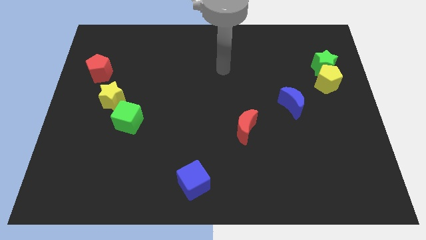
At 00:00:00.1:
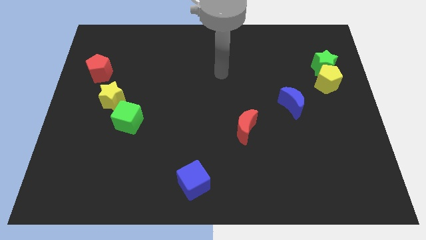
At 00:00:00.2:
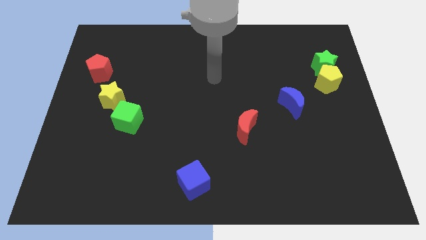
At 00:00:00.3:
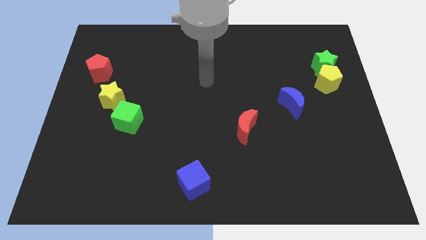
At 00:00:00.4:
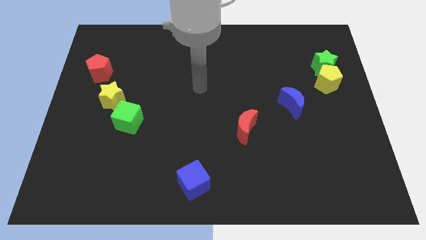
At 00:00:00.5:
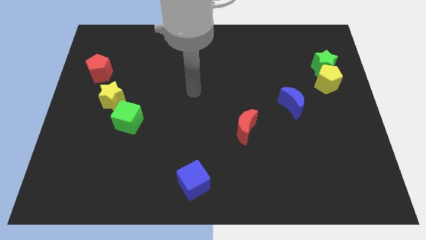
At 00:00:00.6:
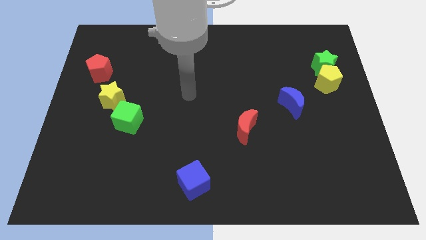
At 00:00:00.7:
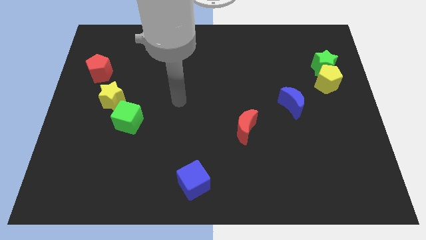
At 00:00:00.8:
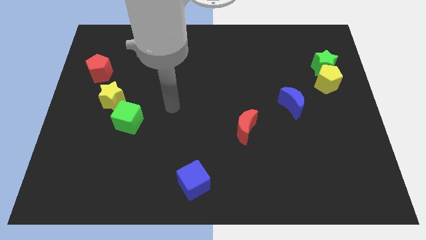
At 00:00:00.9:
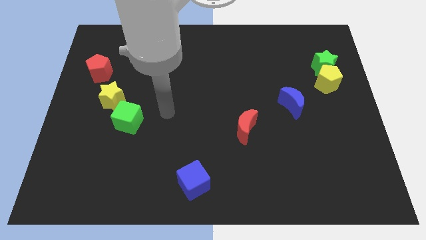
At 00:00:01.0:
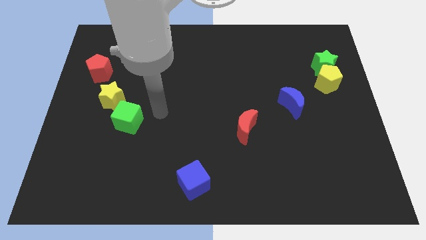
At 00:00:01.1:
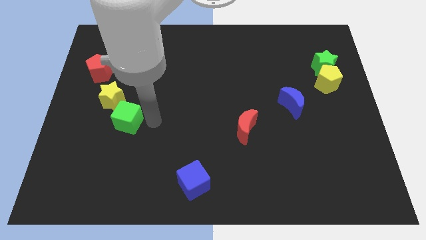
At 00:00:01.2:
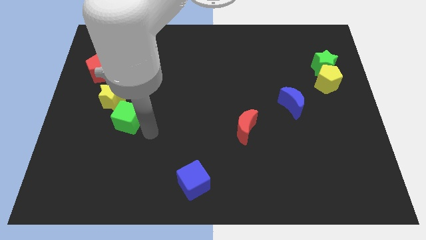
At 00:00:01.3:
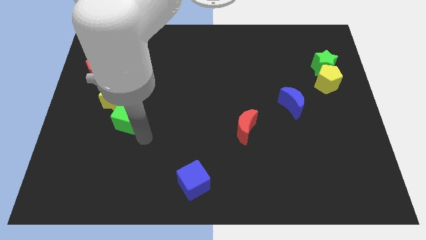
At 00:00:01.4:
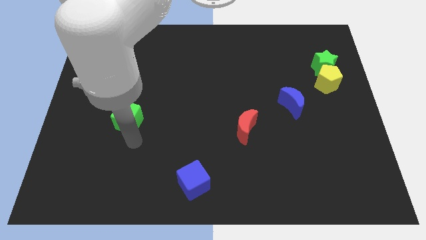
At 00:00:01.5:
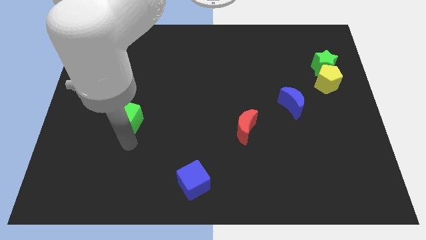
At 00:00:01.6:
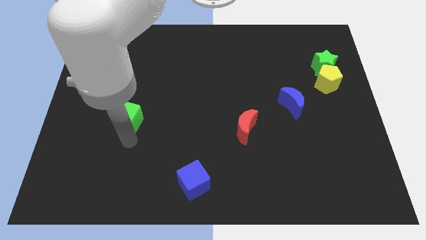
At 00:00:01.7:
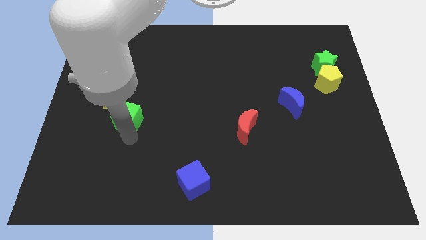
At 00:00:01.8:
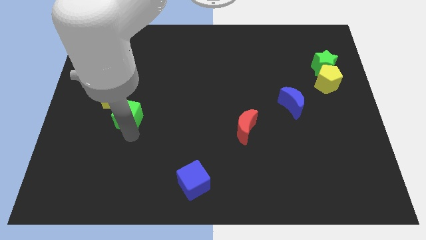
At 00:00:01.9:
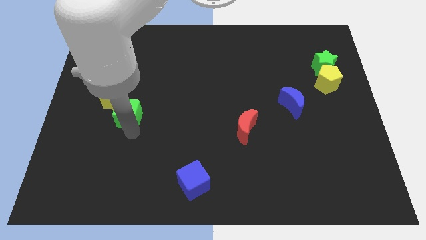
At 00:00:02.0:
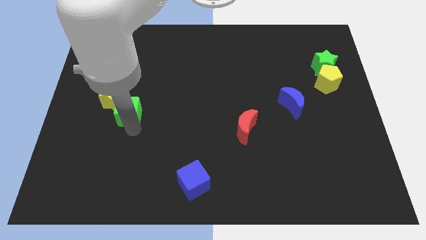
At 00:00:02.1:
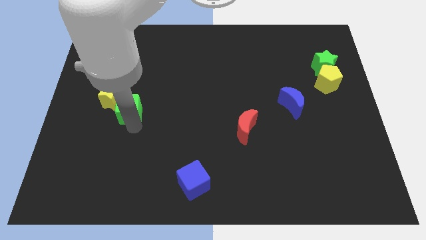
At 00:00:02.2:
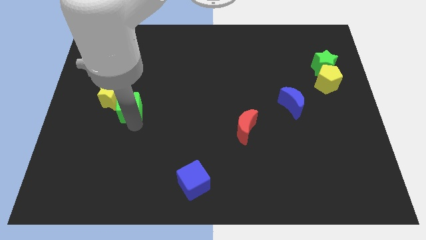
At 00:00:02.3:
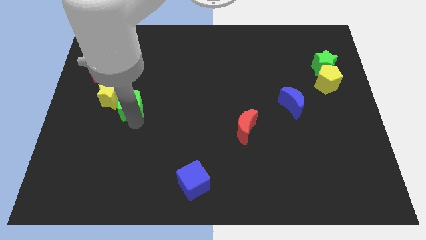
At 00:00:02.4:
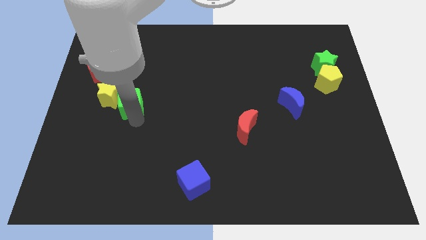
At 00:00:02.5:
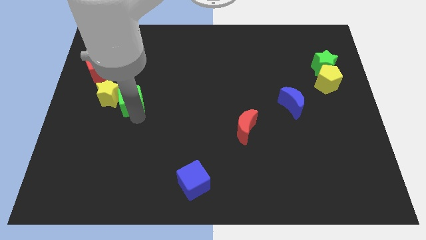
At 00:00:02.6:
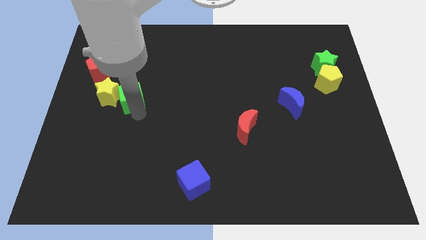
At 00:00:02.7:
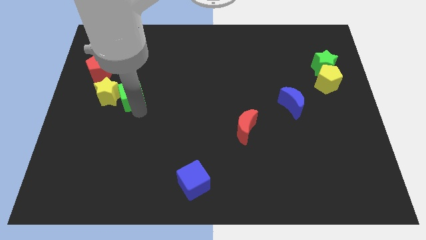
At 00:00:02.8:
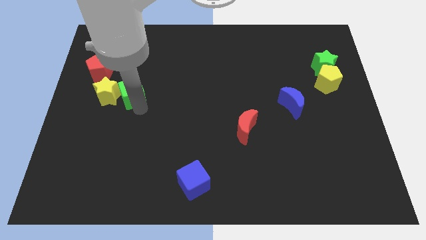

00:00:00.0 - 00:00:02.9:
move the green cube up slightly

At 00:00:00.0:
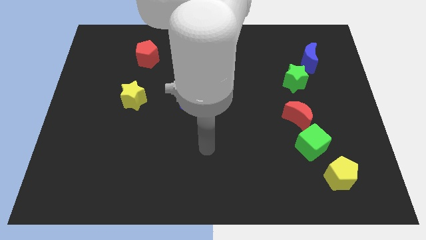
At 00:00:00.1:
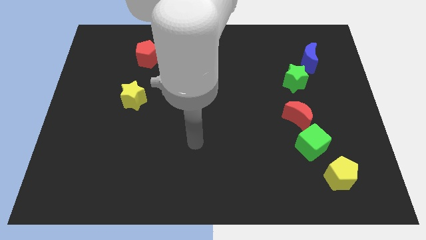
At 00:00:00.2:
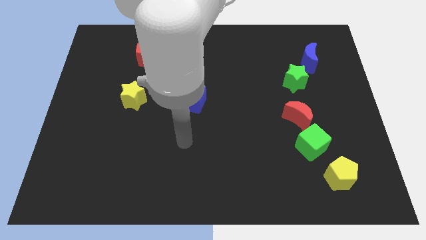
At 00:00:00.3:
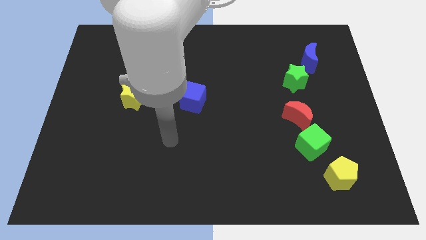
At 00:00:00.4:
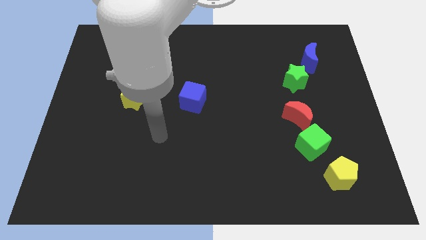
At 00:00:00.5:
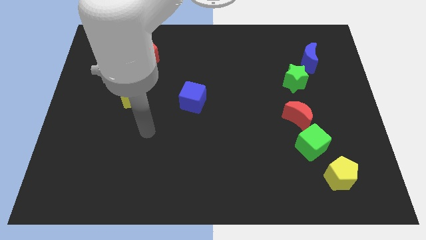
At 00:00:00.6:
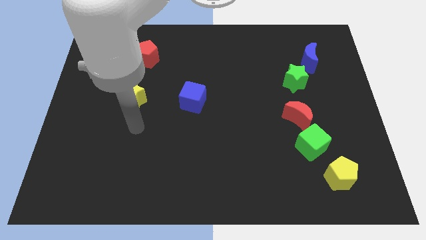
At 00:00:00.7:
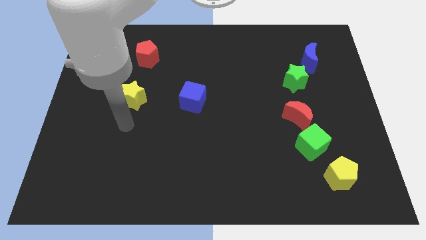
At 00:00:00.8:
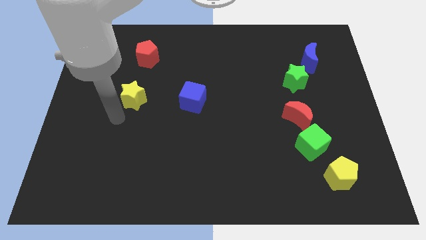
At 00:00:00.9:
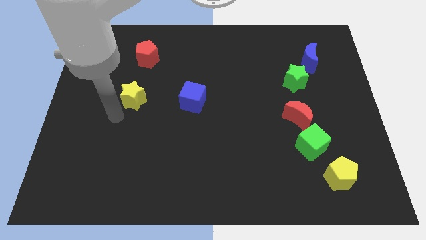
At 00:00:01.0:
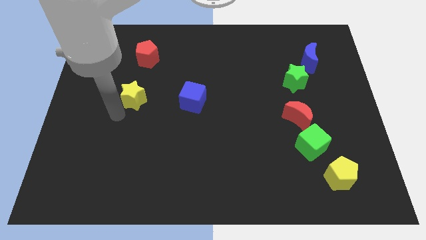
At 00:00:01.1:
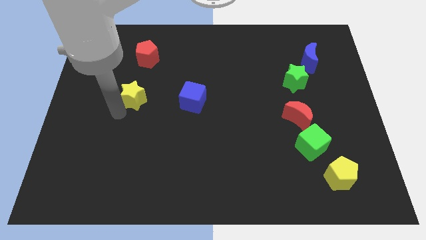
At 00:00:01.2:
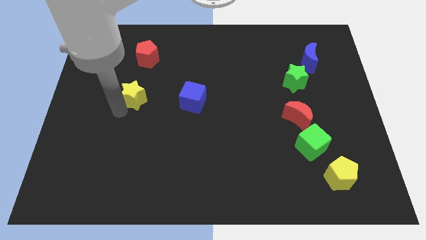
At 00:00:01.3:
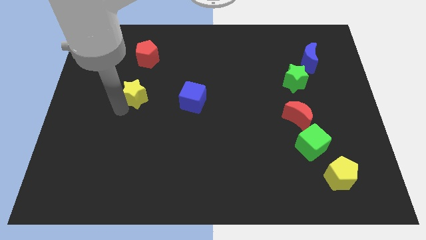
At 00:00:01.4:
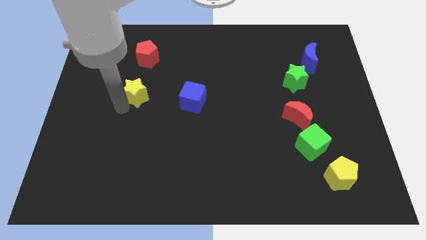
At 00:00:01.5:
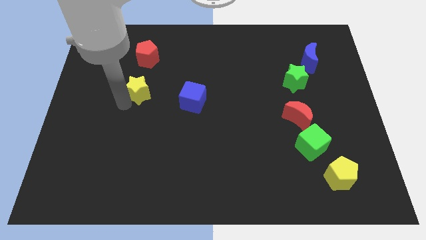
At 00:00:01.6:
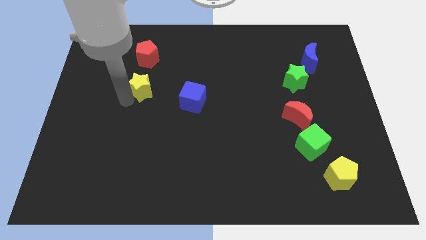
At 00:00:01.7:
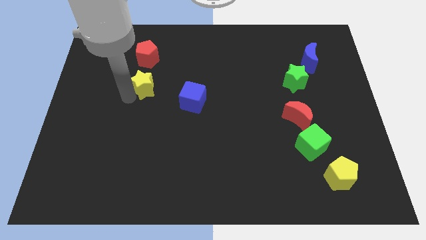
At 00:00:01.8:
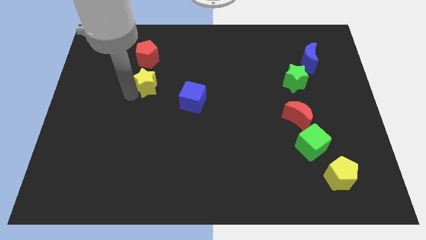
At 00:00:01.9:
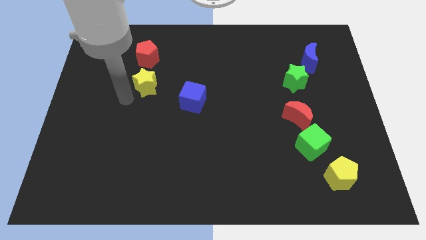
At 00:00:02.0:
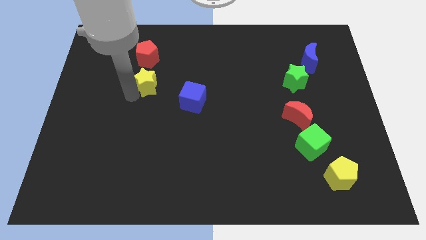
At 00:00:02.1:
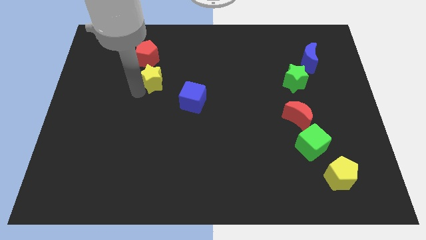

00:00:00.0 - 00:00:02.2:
slide the yellow star a bit up and to the right diagonally

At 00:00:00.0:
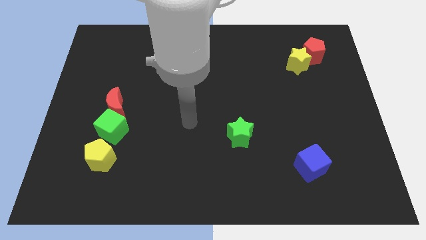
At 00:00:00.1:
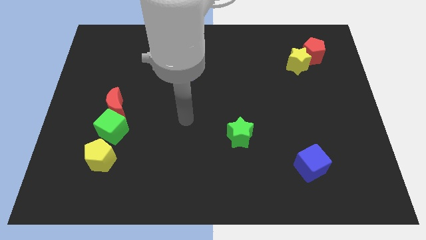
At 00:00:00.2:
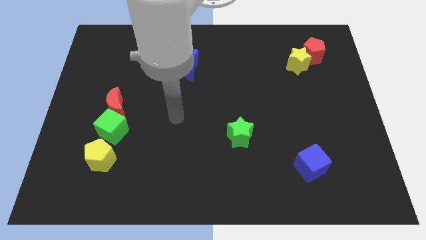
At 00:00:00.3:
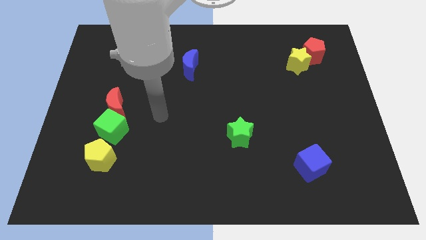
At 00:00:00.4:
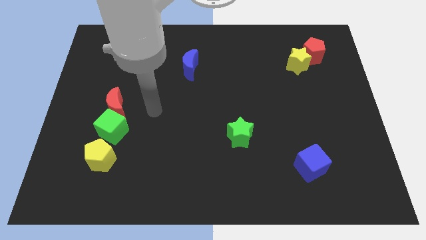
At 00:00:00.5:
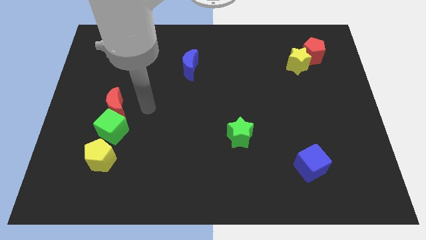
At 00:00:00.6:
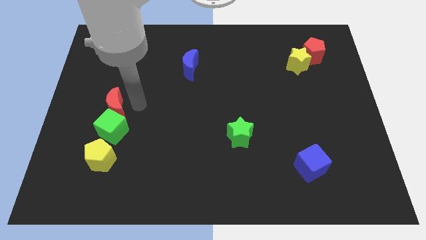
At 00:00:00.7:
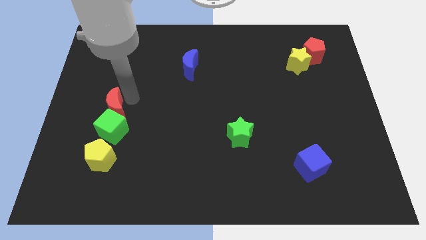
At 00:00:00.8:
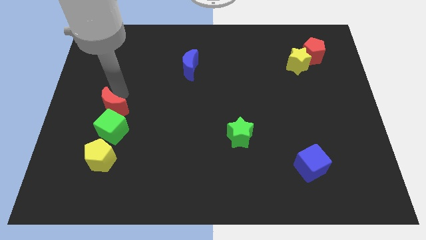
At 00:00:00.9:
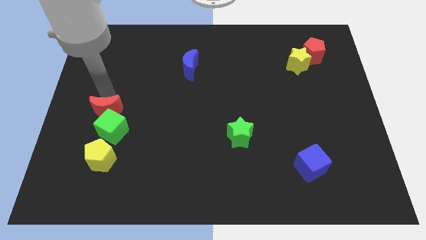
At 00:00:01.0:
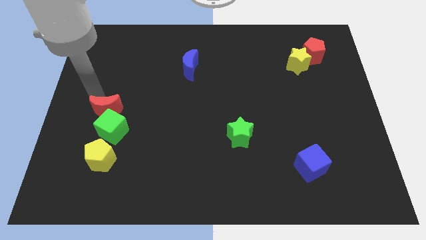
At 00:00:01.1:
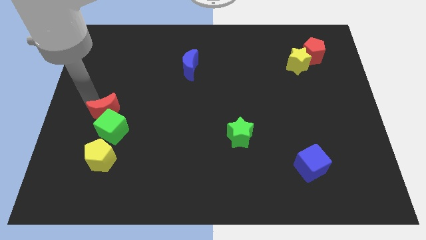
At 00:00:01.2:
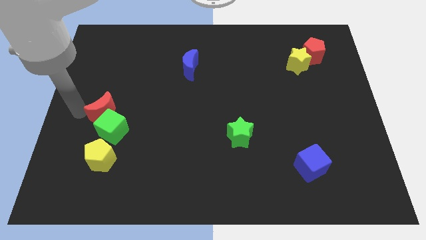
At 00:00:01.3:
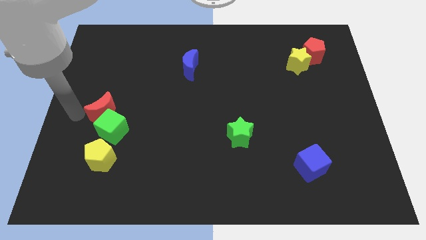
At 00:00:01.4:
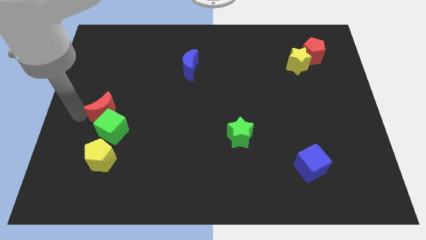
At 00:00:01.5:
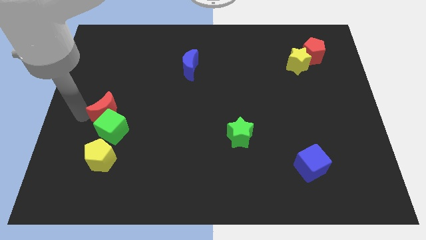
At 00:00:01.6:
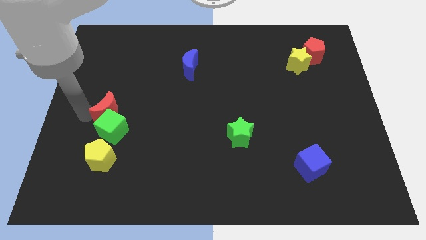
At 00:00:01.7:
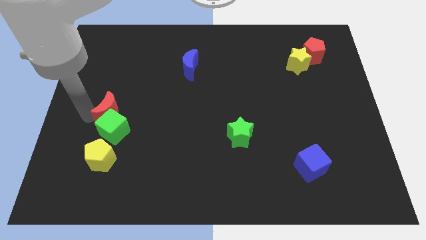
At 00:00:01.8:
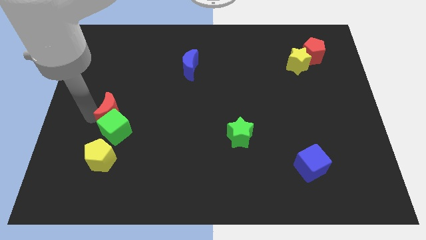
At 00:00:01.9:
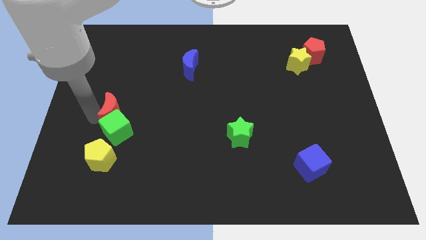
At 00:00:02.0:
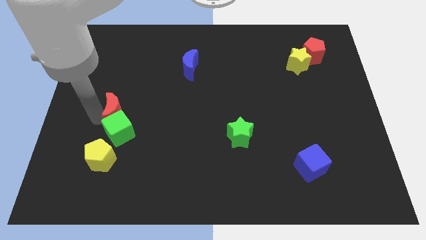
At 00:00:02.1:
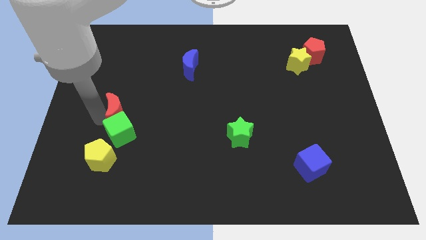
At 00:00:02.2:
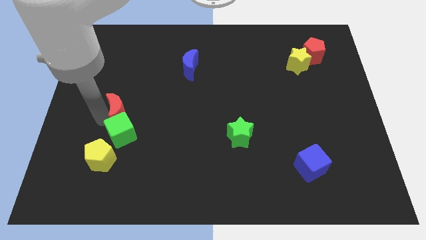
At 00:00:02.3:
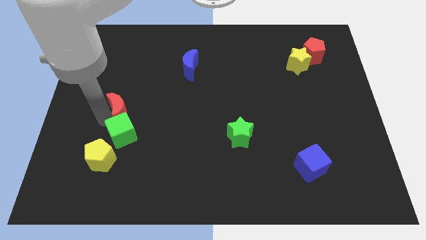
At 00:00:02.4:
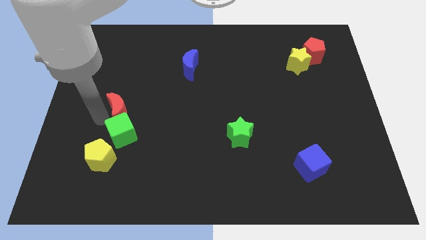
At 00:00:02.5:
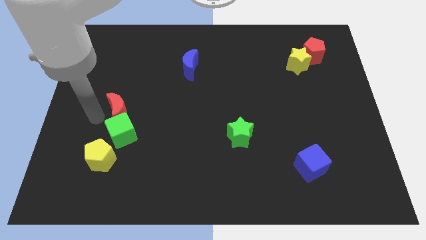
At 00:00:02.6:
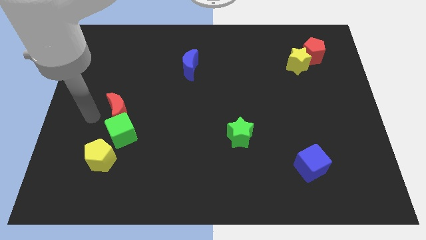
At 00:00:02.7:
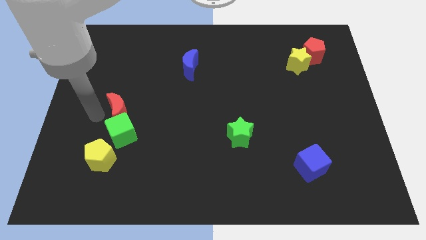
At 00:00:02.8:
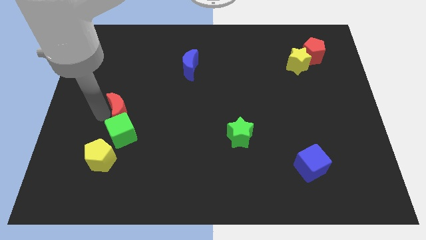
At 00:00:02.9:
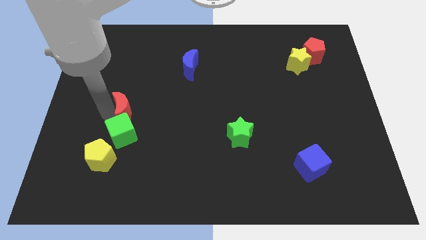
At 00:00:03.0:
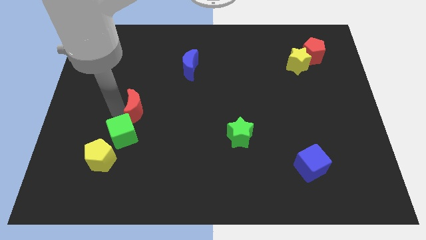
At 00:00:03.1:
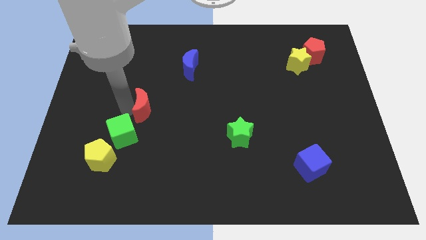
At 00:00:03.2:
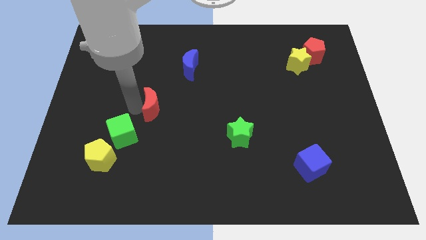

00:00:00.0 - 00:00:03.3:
slide the red moon slightly to the right

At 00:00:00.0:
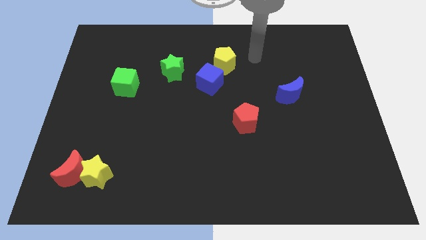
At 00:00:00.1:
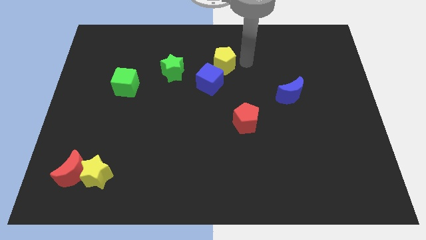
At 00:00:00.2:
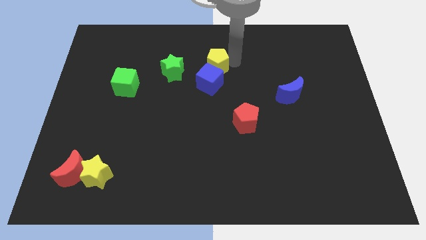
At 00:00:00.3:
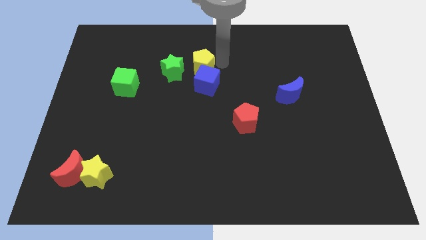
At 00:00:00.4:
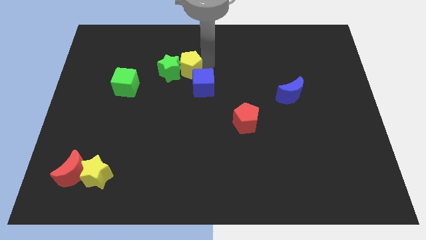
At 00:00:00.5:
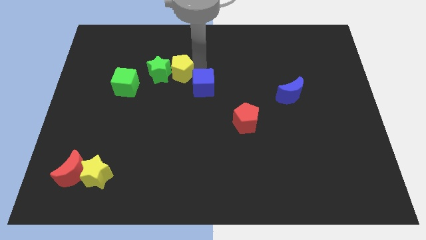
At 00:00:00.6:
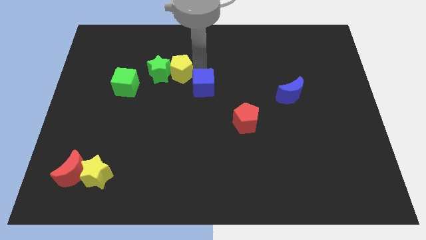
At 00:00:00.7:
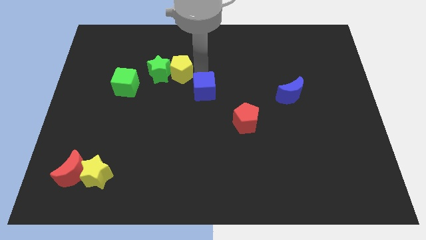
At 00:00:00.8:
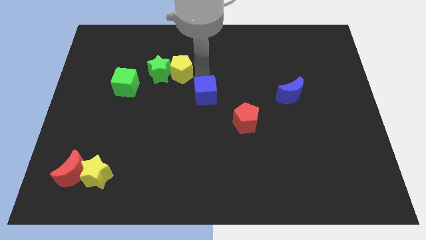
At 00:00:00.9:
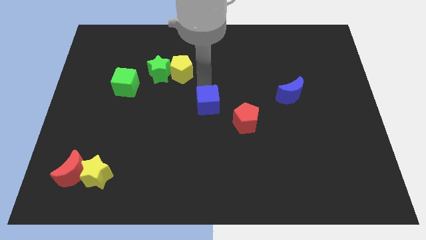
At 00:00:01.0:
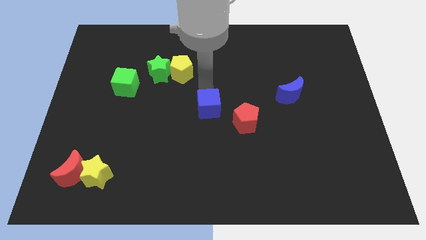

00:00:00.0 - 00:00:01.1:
push the blue cube downwards a little
